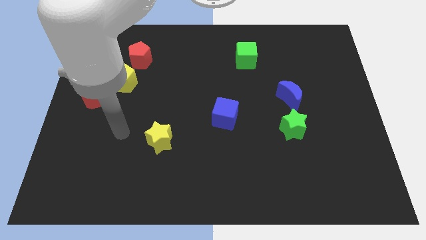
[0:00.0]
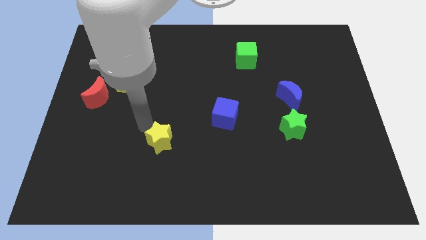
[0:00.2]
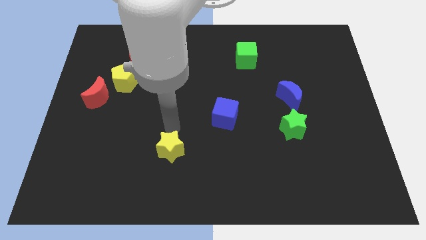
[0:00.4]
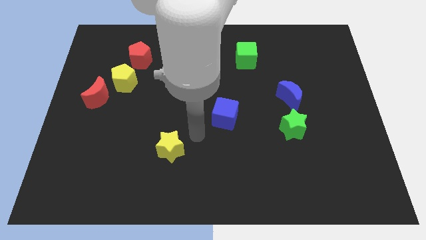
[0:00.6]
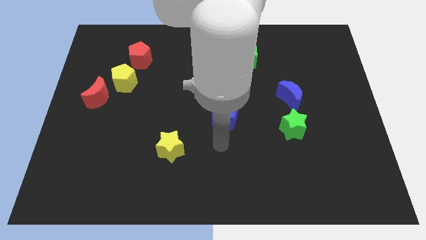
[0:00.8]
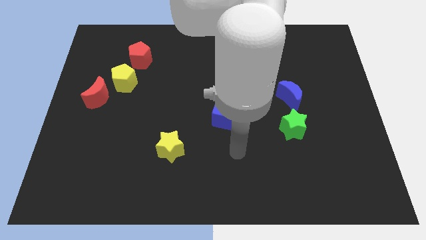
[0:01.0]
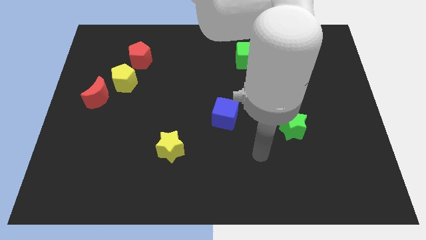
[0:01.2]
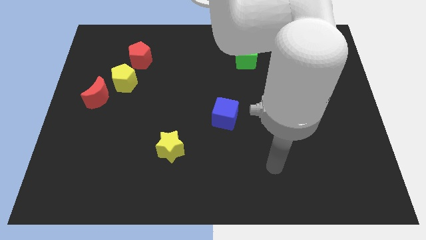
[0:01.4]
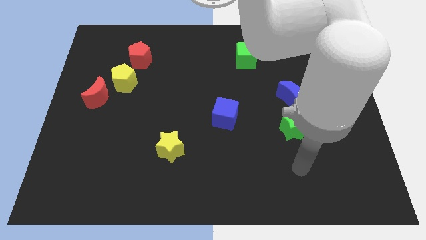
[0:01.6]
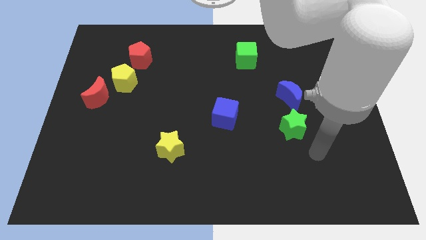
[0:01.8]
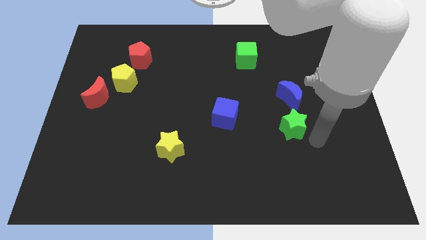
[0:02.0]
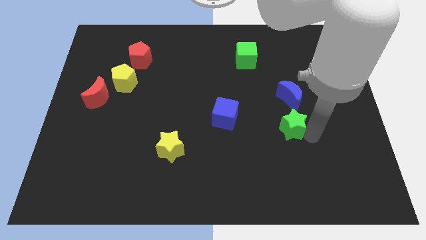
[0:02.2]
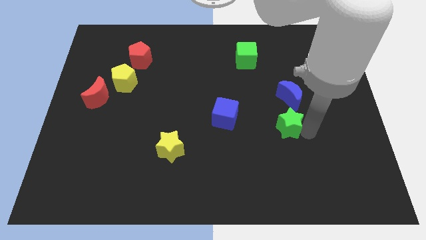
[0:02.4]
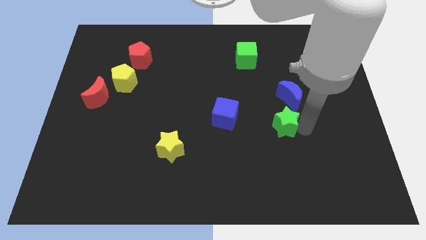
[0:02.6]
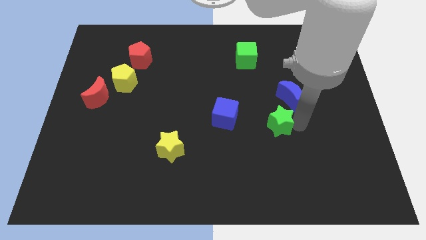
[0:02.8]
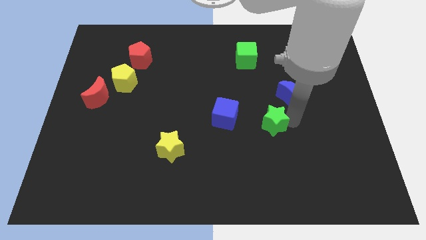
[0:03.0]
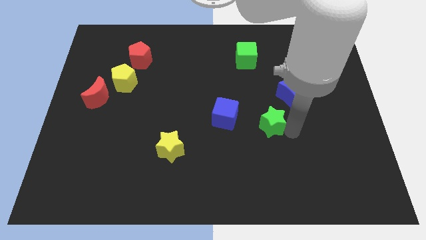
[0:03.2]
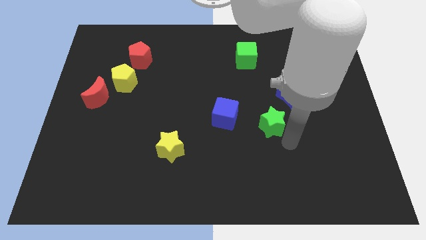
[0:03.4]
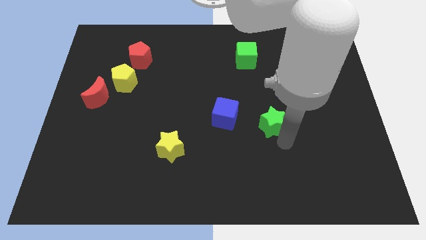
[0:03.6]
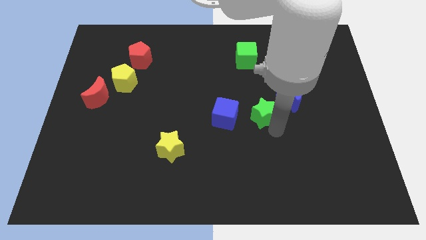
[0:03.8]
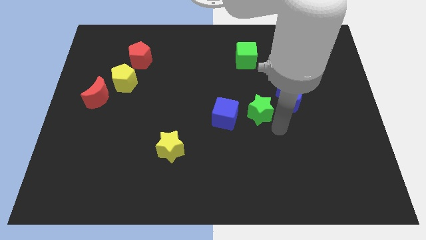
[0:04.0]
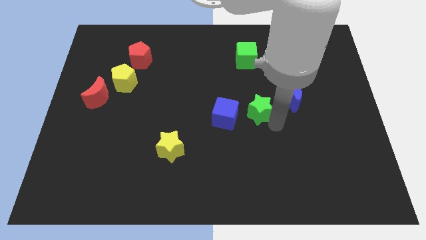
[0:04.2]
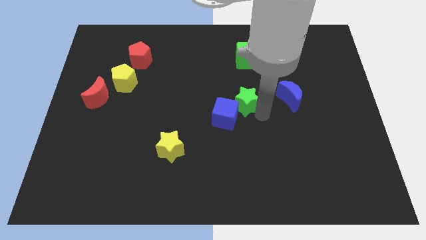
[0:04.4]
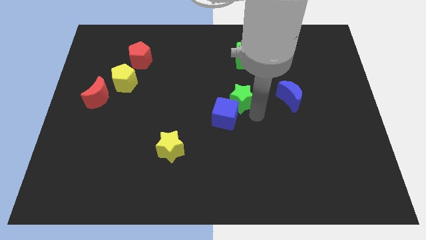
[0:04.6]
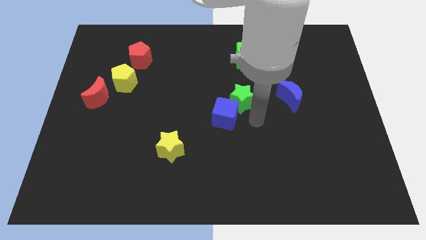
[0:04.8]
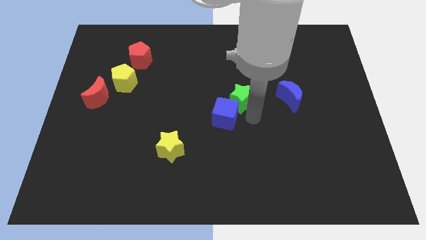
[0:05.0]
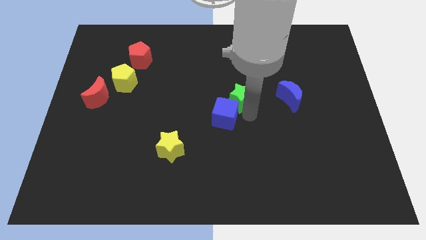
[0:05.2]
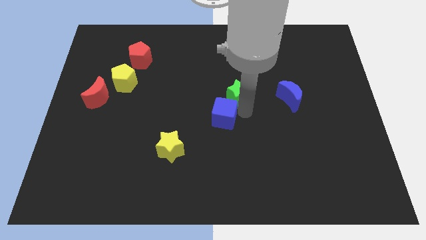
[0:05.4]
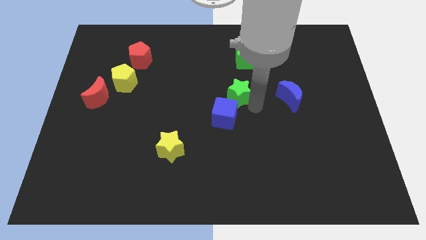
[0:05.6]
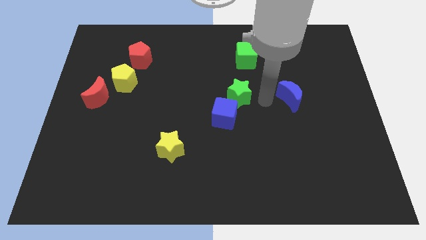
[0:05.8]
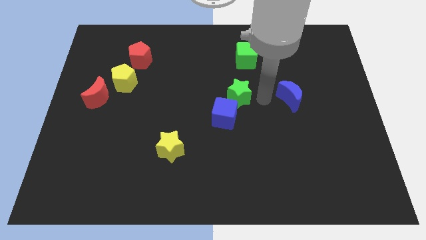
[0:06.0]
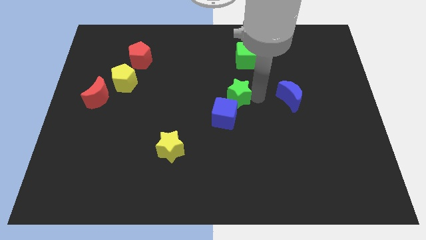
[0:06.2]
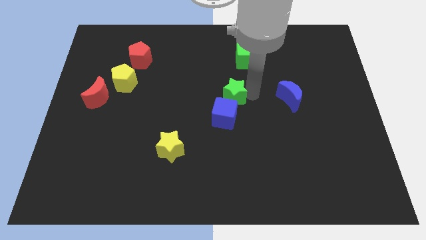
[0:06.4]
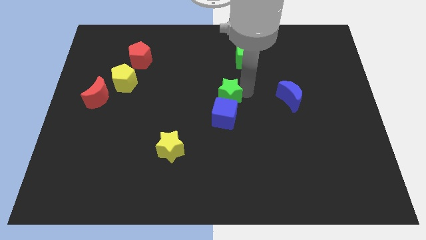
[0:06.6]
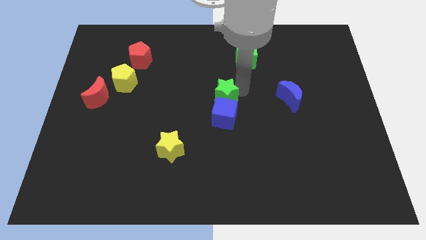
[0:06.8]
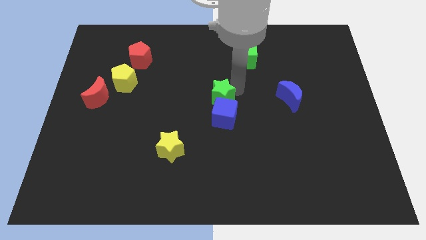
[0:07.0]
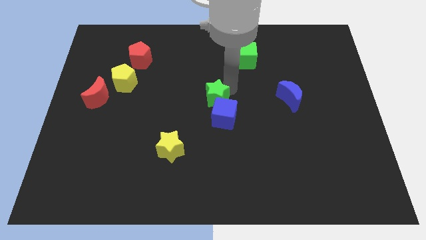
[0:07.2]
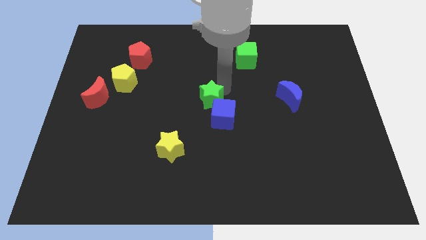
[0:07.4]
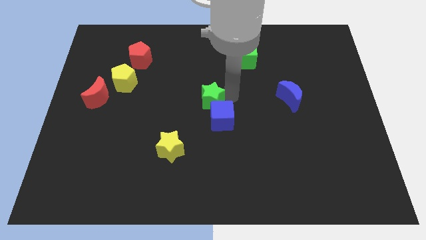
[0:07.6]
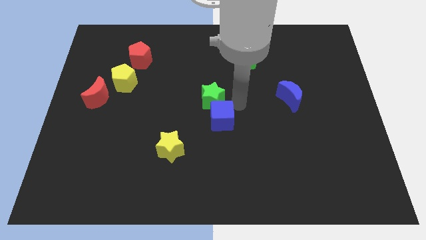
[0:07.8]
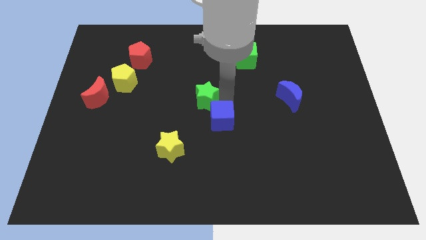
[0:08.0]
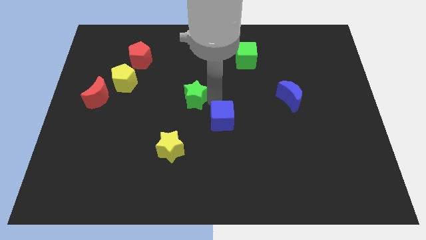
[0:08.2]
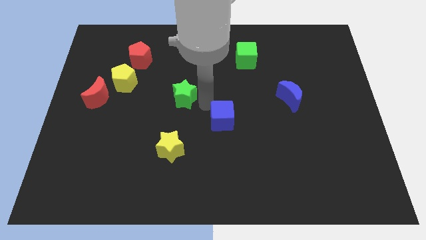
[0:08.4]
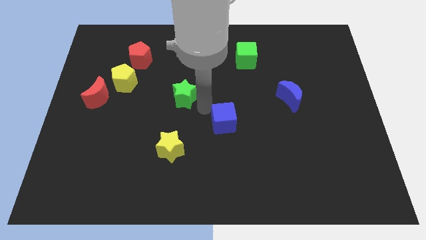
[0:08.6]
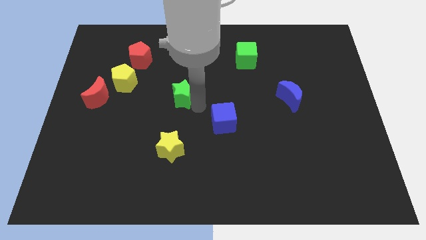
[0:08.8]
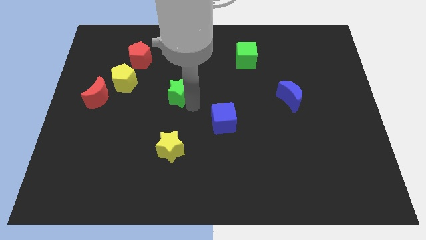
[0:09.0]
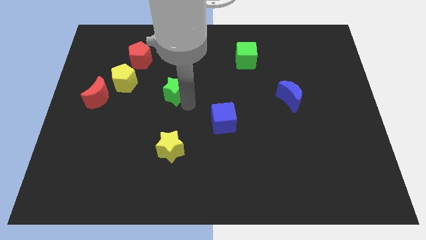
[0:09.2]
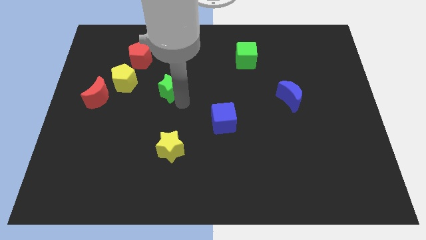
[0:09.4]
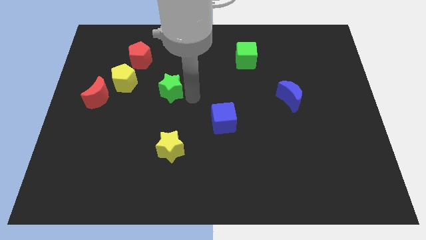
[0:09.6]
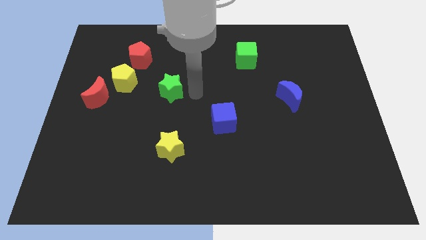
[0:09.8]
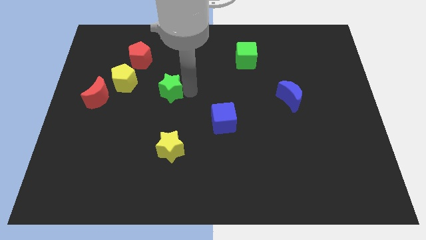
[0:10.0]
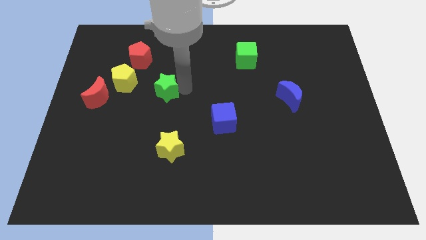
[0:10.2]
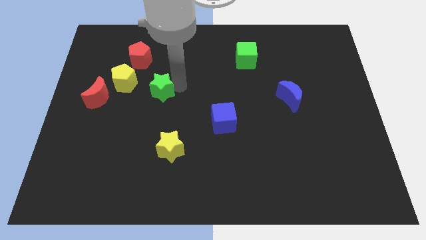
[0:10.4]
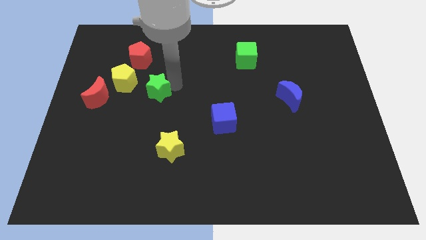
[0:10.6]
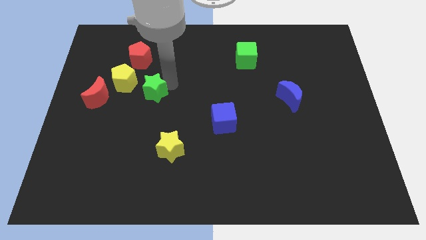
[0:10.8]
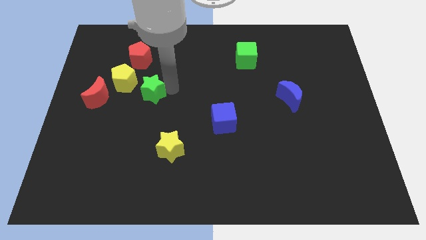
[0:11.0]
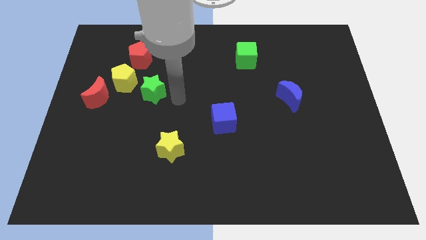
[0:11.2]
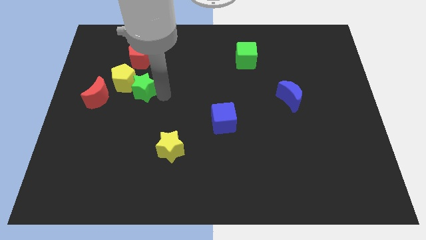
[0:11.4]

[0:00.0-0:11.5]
push the green star next to the yellow pentagon

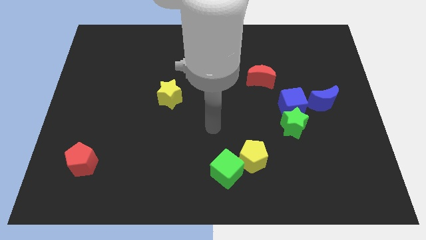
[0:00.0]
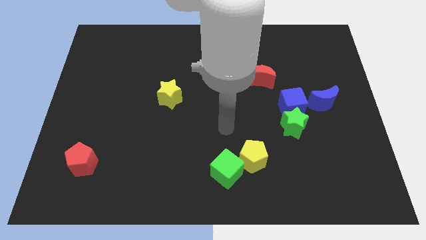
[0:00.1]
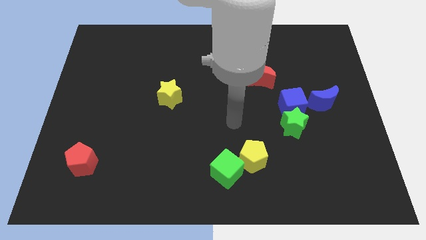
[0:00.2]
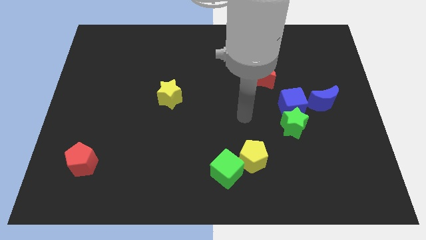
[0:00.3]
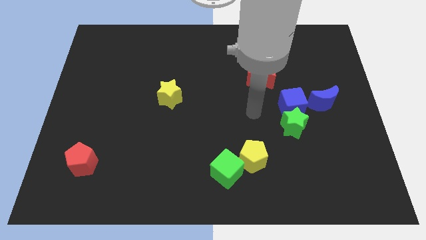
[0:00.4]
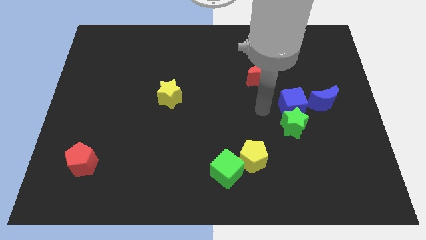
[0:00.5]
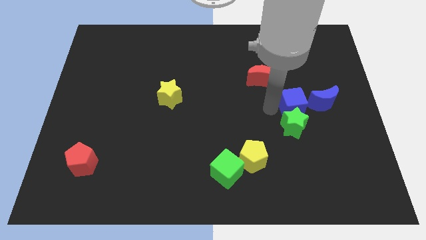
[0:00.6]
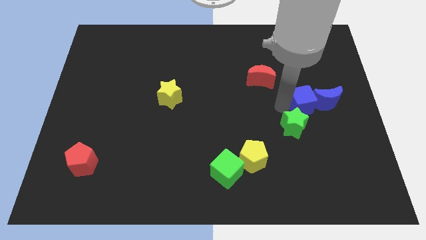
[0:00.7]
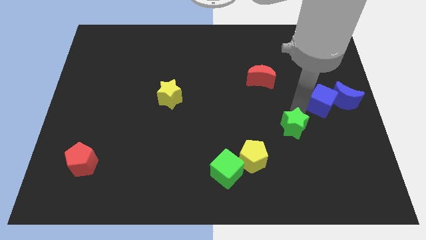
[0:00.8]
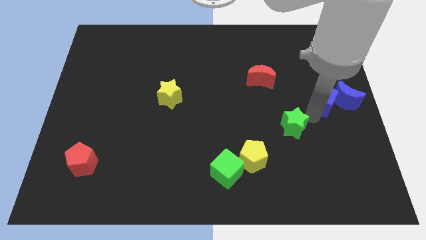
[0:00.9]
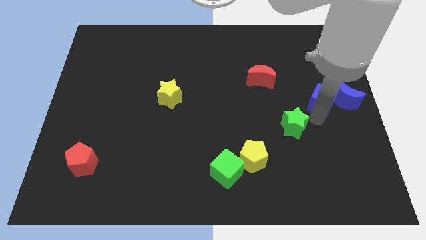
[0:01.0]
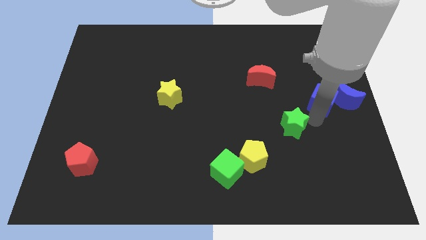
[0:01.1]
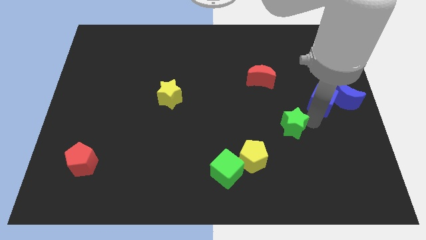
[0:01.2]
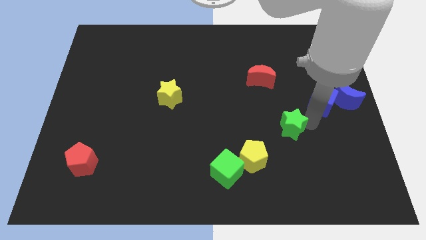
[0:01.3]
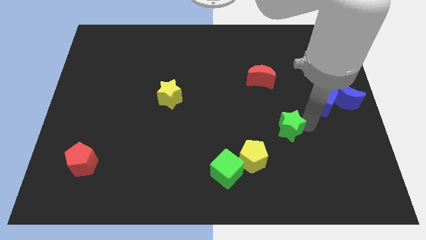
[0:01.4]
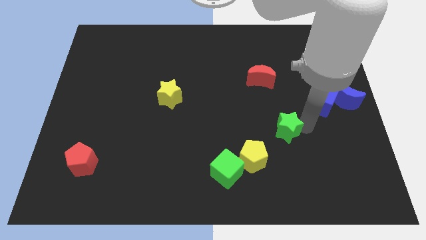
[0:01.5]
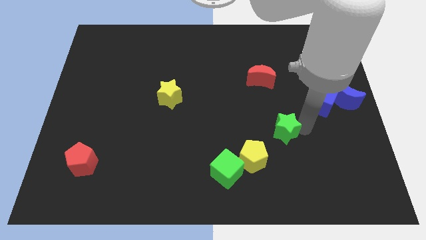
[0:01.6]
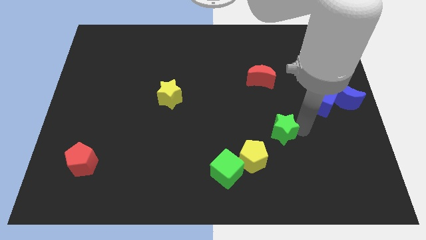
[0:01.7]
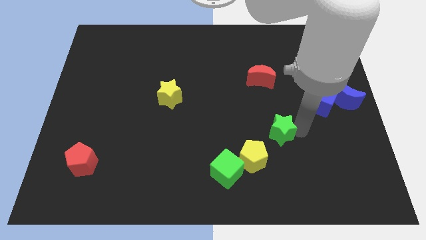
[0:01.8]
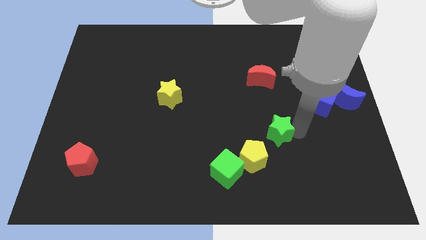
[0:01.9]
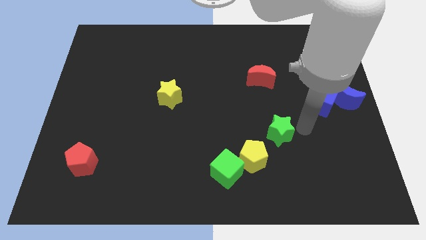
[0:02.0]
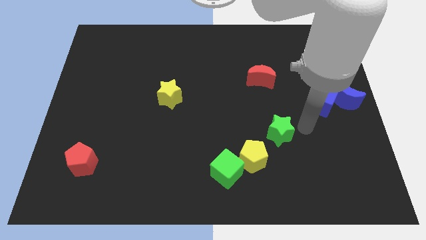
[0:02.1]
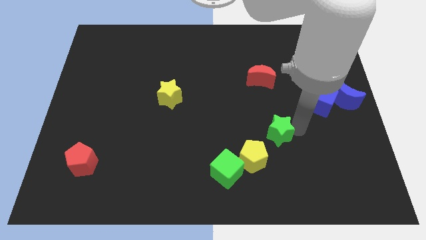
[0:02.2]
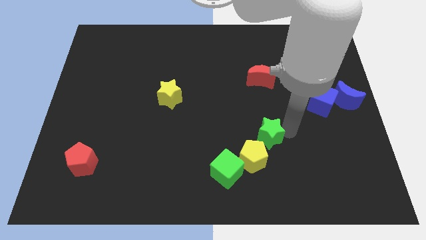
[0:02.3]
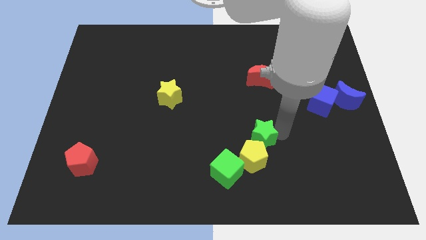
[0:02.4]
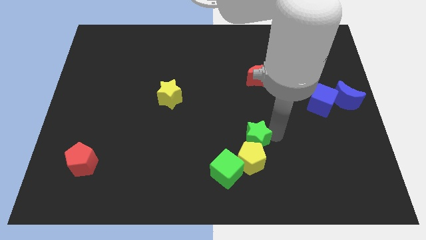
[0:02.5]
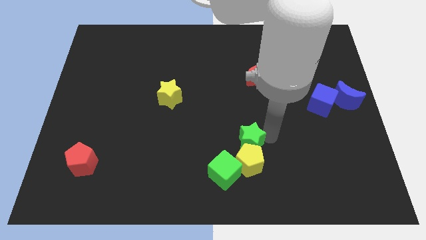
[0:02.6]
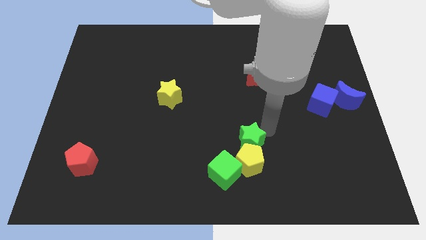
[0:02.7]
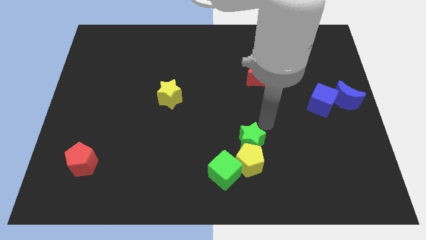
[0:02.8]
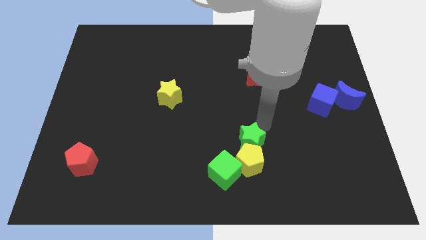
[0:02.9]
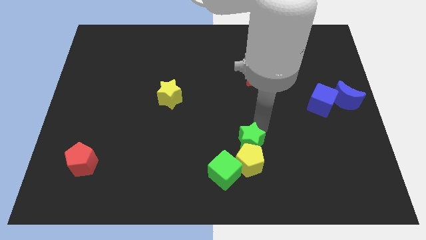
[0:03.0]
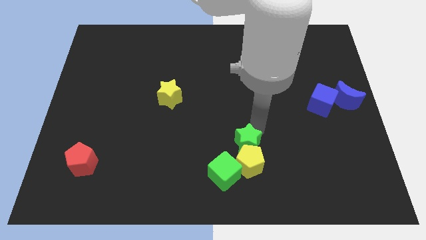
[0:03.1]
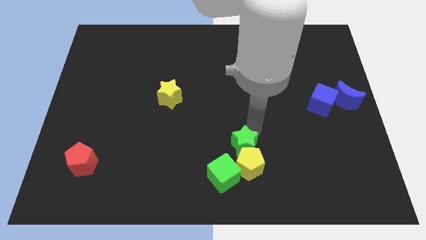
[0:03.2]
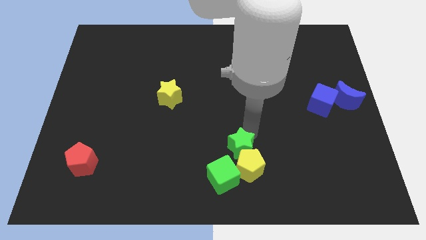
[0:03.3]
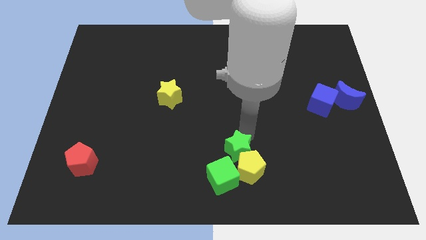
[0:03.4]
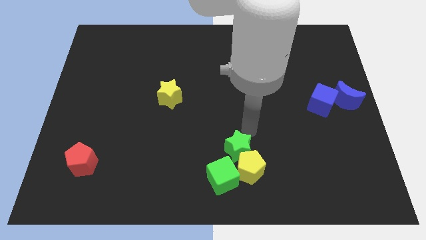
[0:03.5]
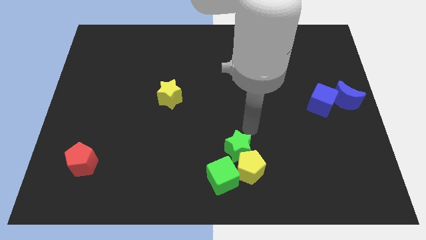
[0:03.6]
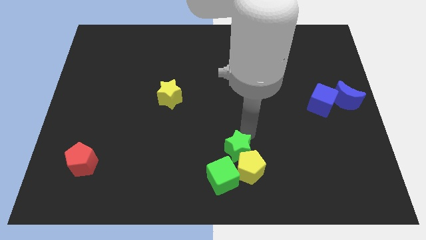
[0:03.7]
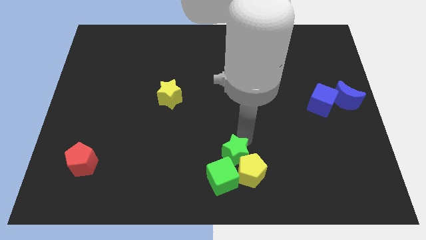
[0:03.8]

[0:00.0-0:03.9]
put the green star close to the green cube
